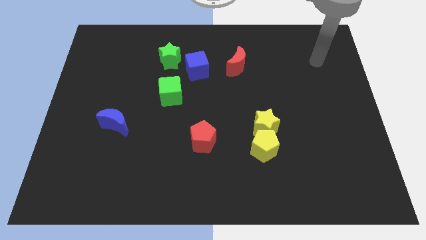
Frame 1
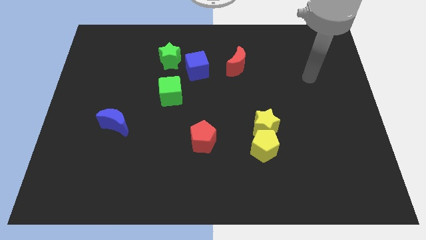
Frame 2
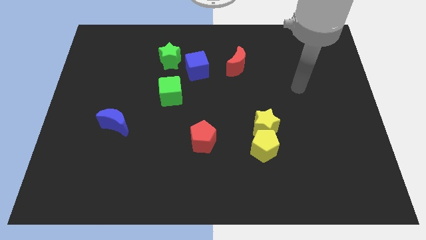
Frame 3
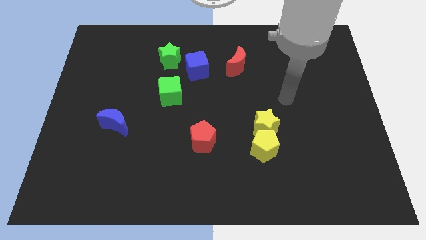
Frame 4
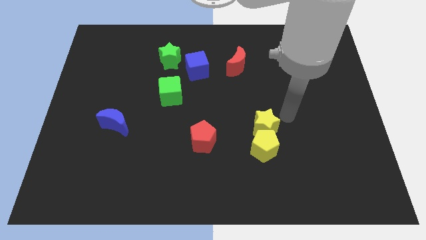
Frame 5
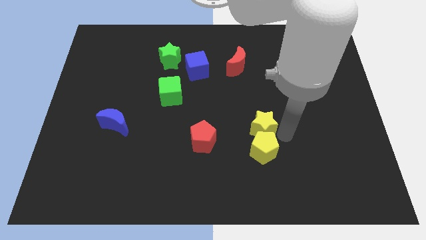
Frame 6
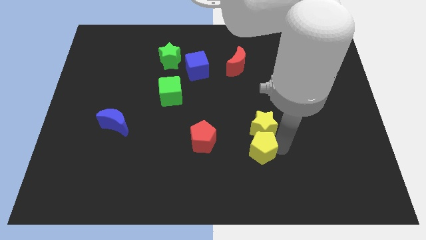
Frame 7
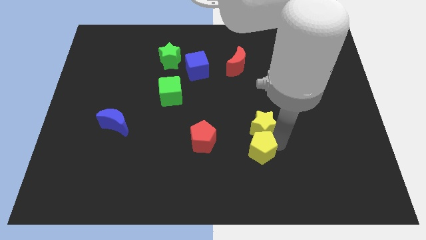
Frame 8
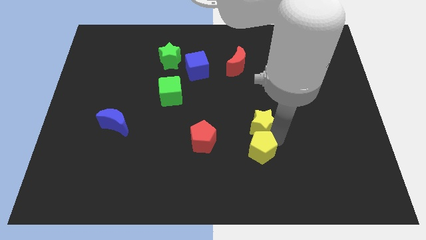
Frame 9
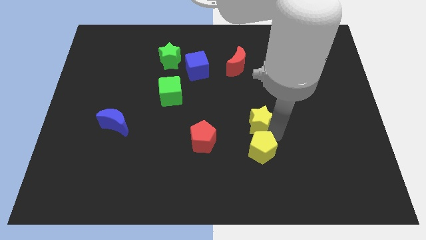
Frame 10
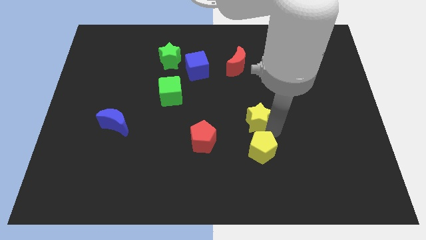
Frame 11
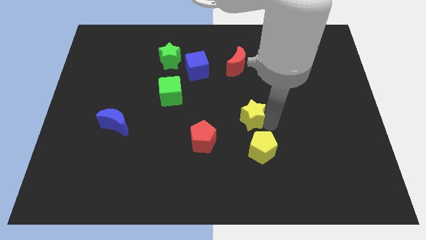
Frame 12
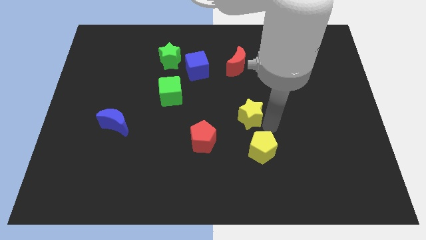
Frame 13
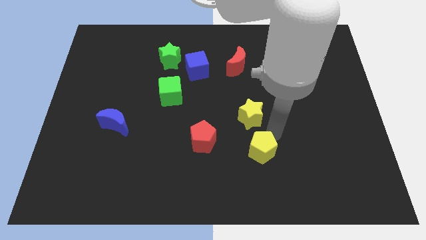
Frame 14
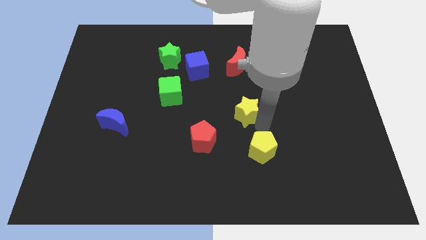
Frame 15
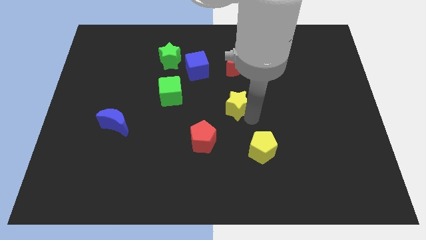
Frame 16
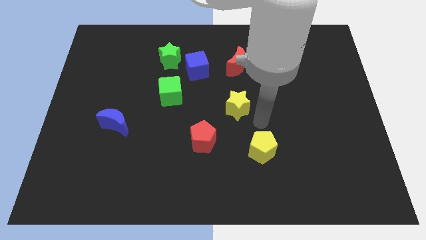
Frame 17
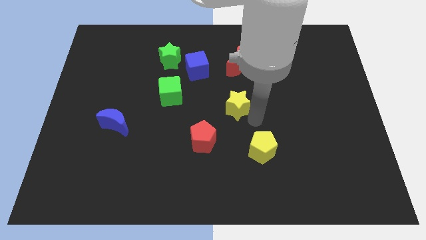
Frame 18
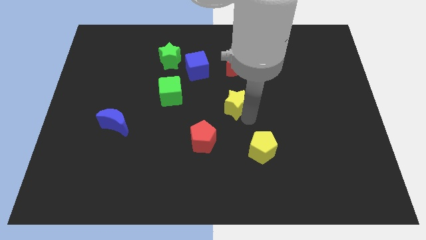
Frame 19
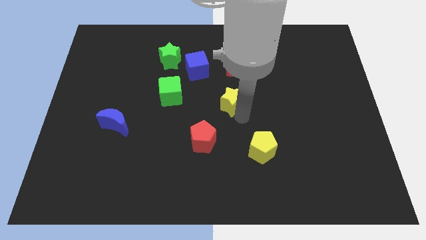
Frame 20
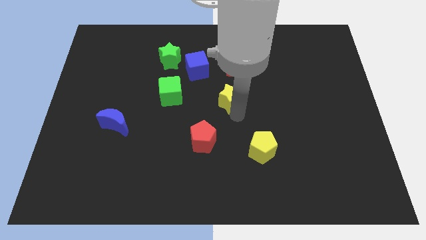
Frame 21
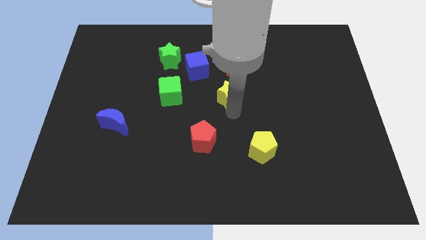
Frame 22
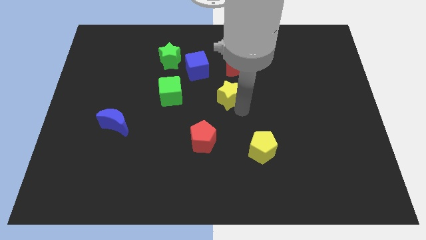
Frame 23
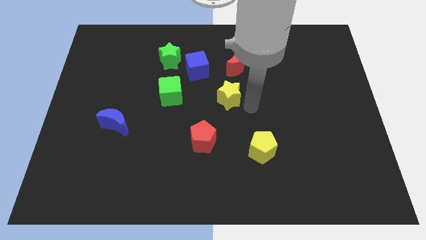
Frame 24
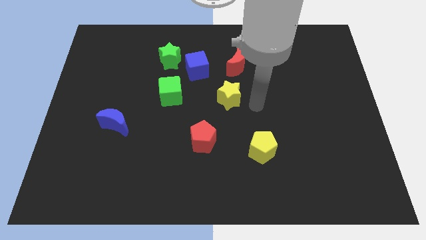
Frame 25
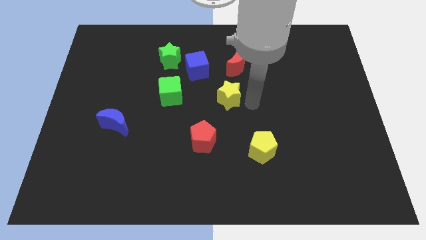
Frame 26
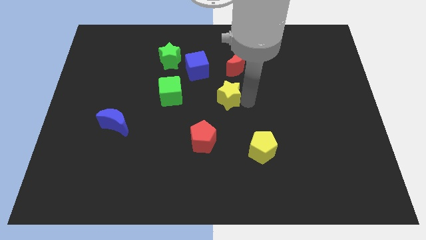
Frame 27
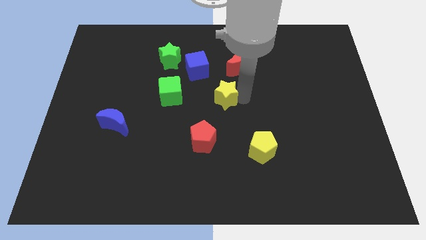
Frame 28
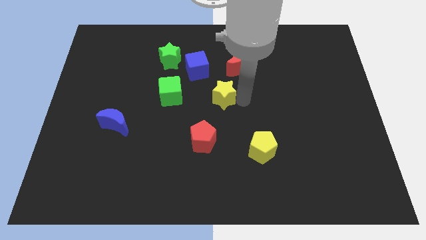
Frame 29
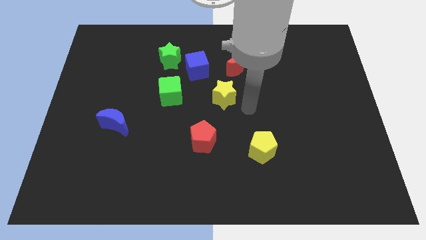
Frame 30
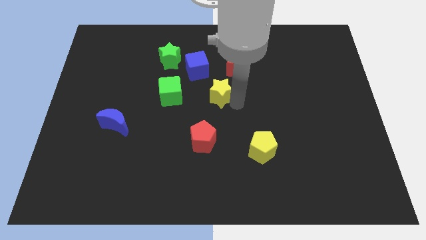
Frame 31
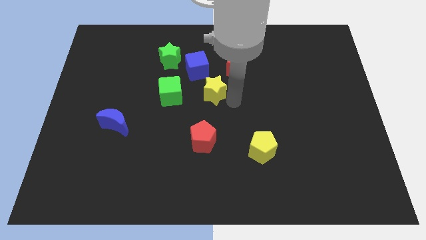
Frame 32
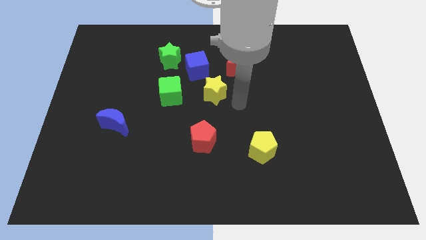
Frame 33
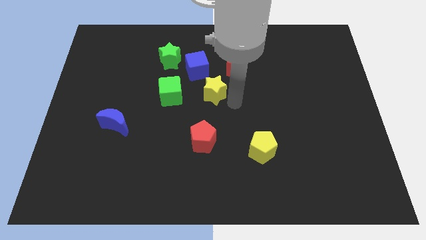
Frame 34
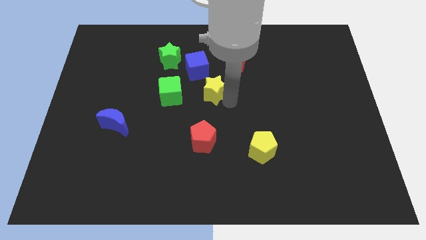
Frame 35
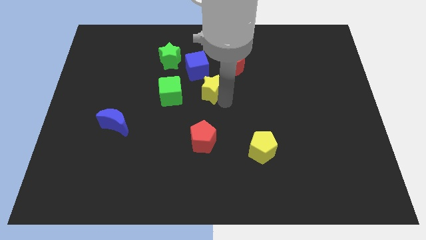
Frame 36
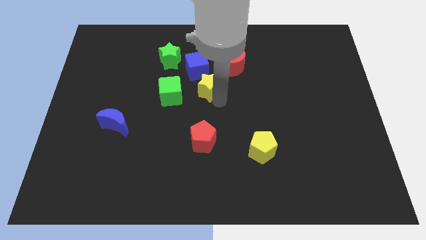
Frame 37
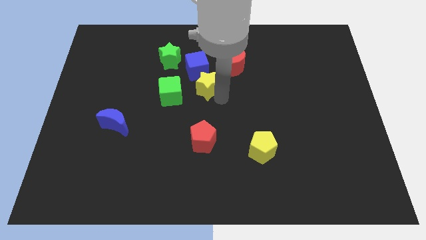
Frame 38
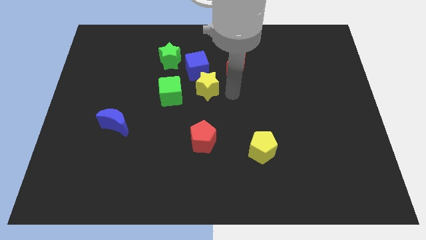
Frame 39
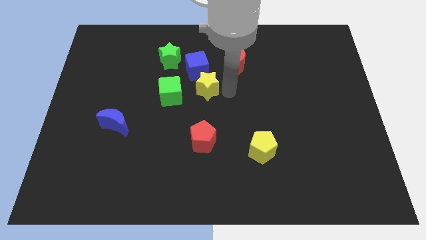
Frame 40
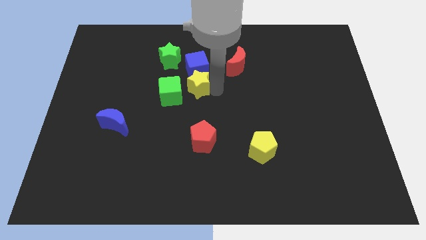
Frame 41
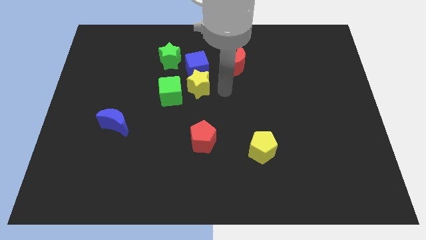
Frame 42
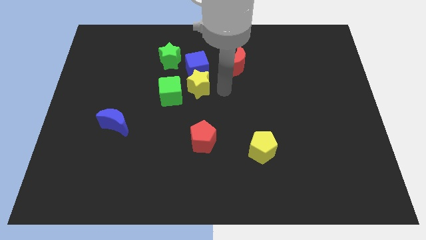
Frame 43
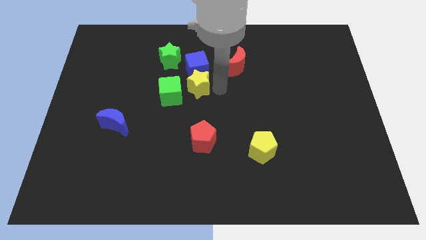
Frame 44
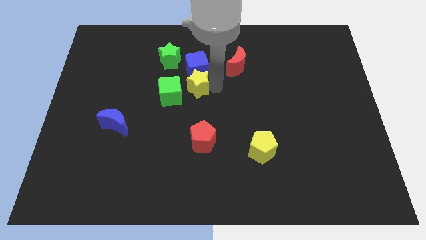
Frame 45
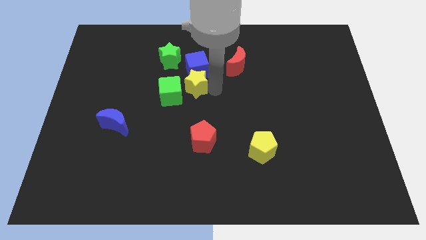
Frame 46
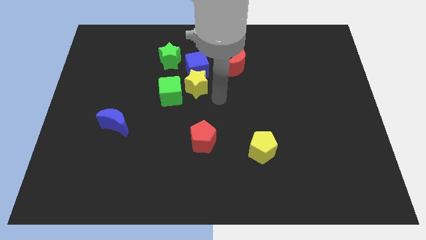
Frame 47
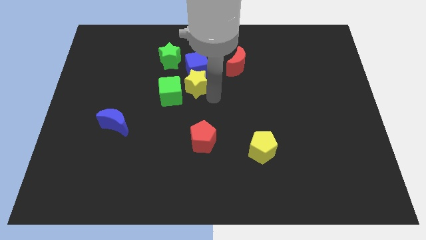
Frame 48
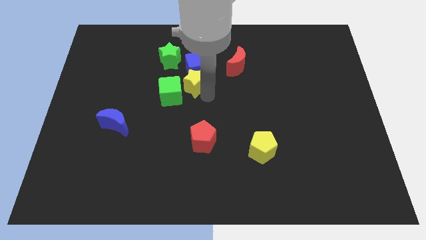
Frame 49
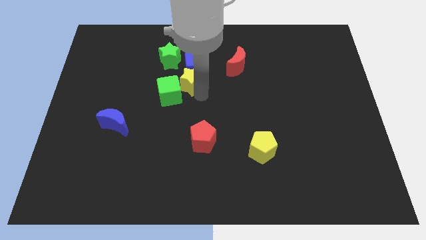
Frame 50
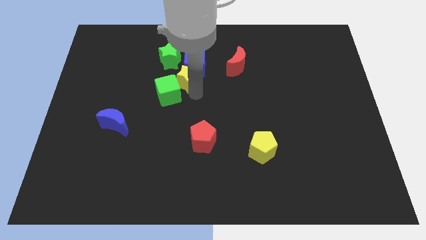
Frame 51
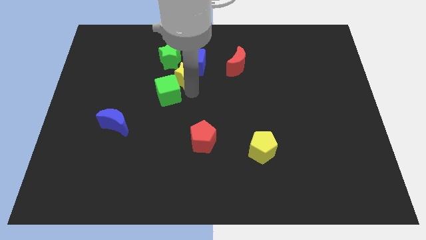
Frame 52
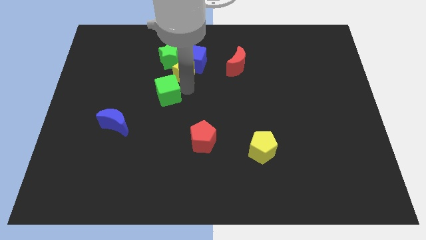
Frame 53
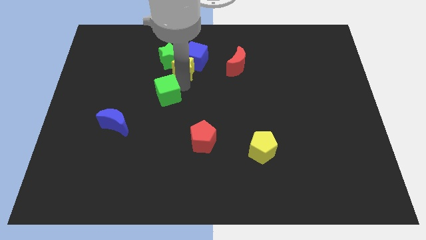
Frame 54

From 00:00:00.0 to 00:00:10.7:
put the yellow star towards the green star

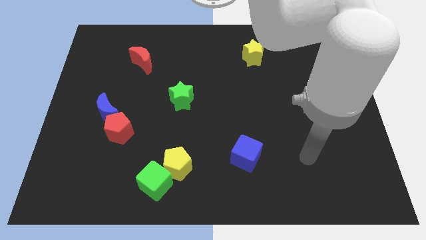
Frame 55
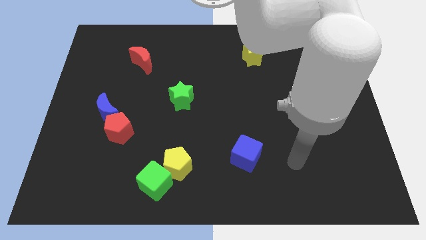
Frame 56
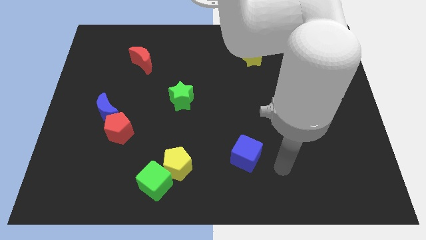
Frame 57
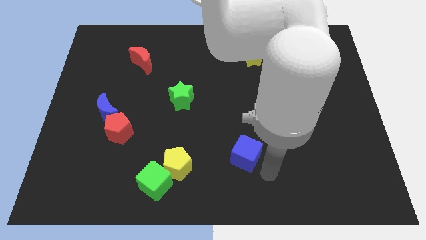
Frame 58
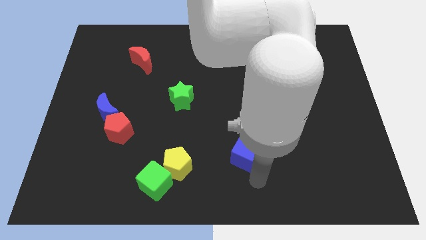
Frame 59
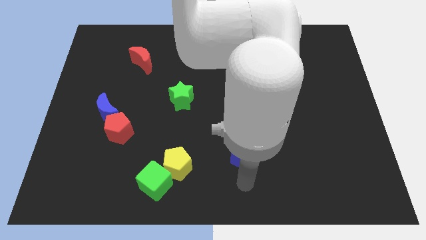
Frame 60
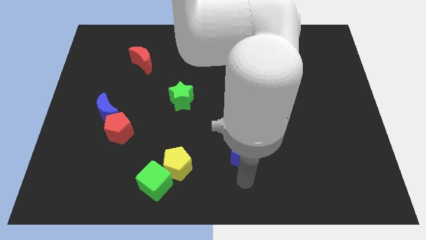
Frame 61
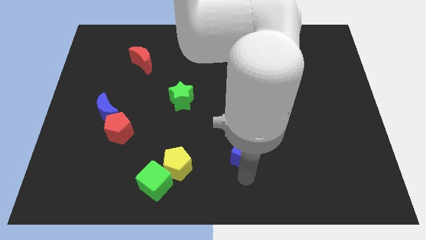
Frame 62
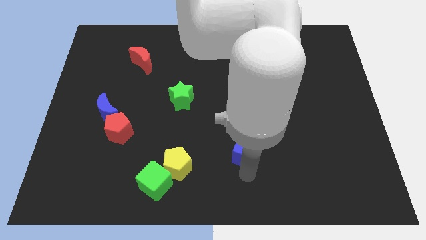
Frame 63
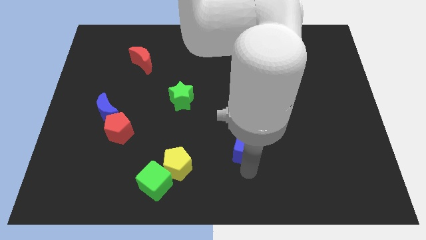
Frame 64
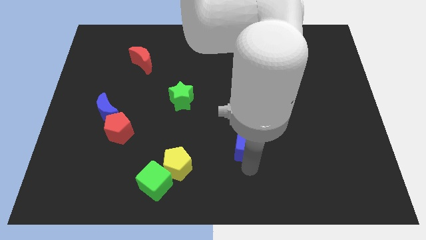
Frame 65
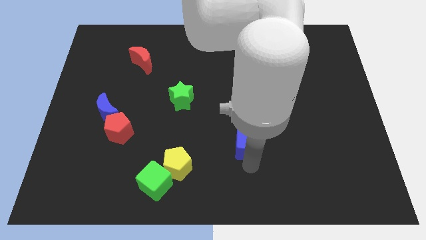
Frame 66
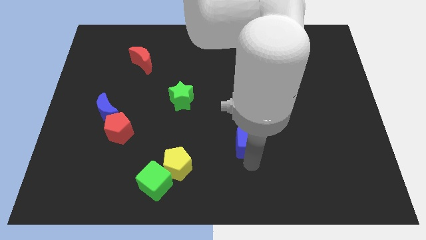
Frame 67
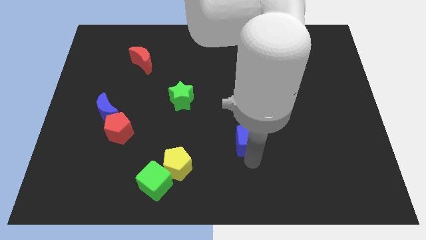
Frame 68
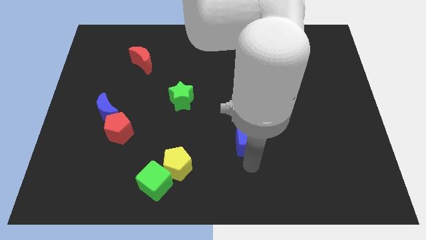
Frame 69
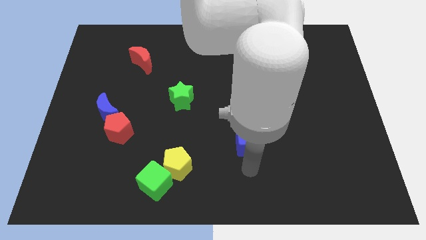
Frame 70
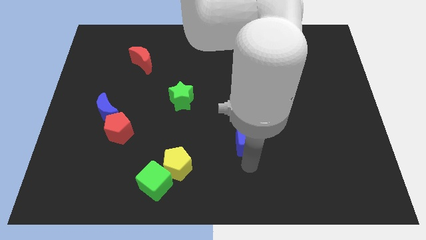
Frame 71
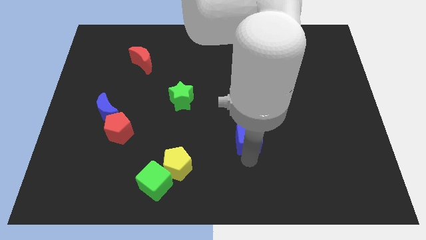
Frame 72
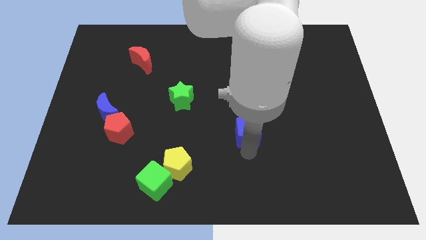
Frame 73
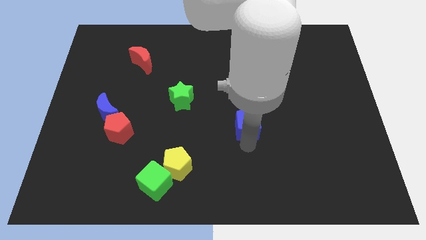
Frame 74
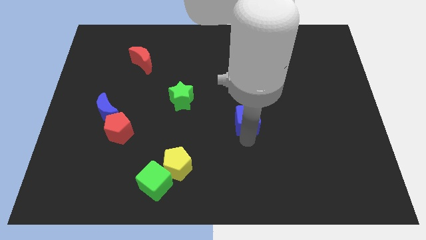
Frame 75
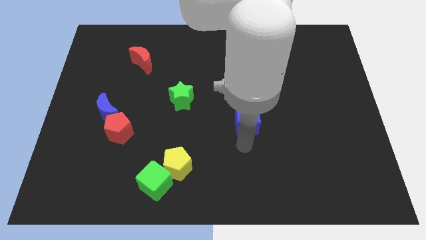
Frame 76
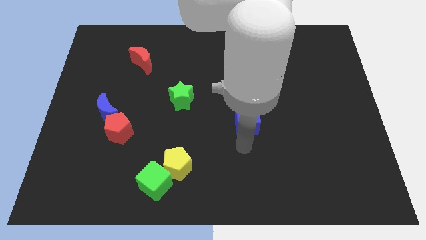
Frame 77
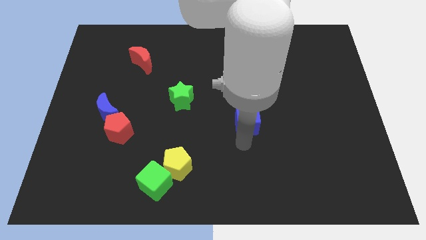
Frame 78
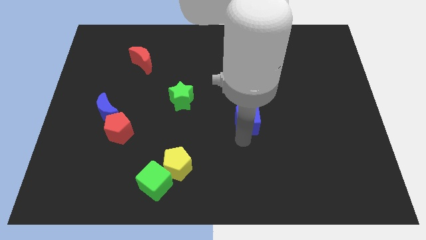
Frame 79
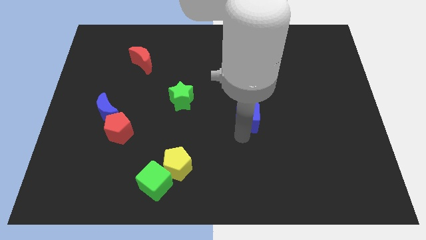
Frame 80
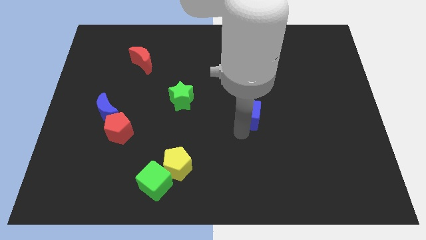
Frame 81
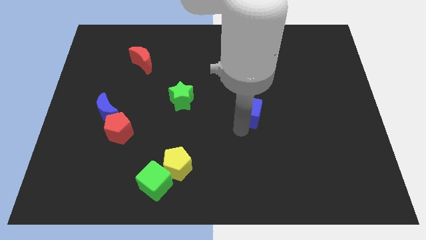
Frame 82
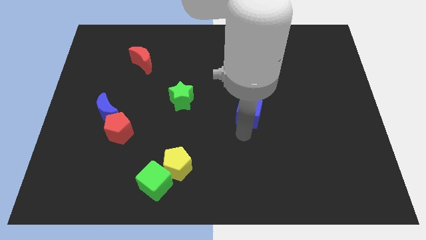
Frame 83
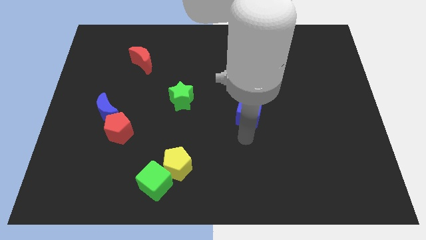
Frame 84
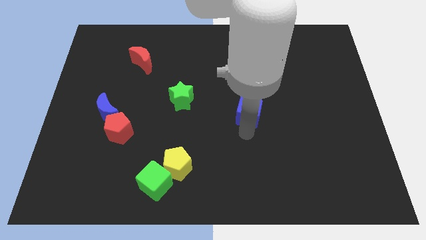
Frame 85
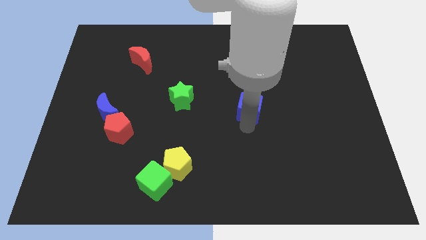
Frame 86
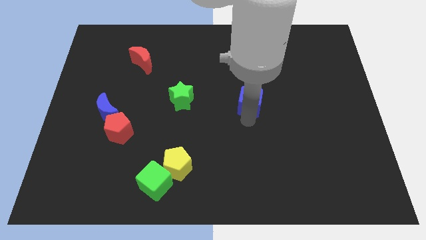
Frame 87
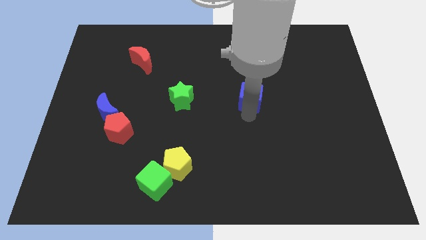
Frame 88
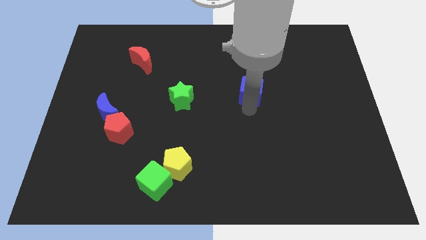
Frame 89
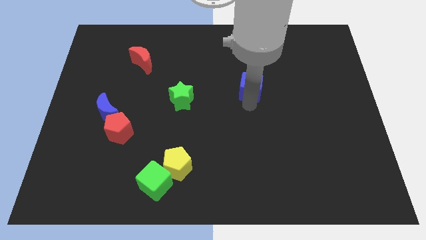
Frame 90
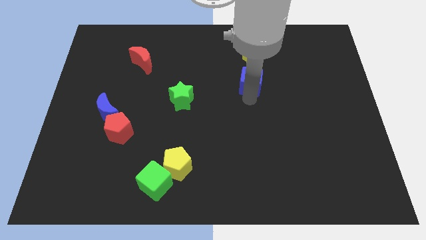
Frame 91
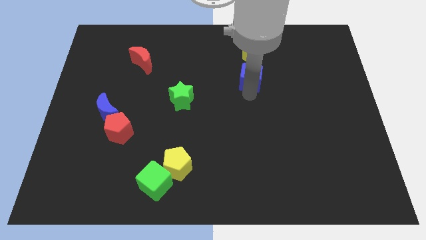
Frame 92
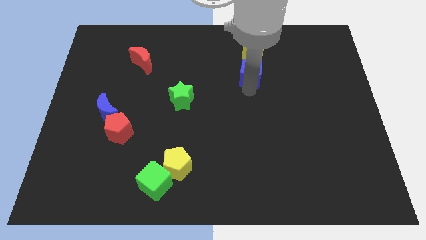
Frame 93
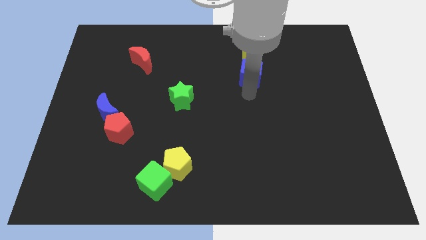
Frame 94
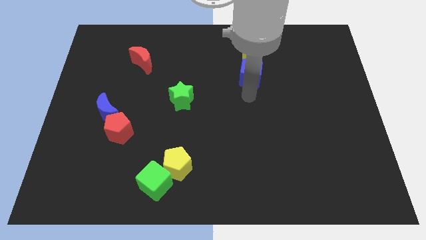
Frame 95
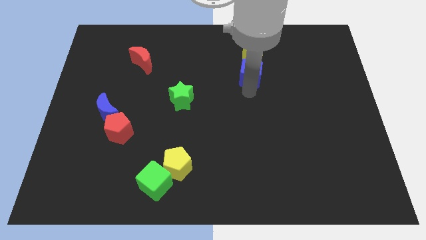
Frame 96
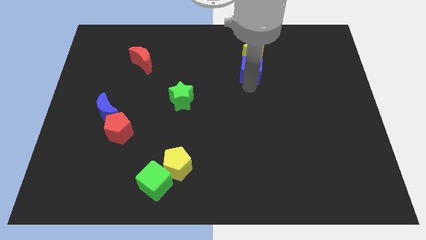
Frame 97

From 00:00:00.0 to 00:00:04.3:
move the blue cube close to the yellow star
